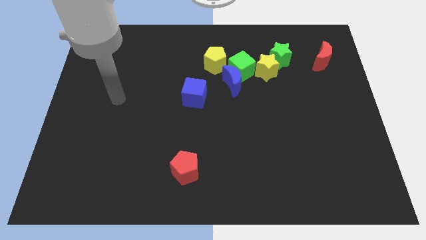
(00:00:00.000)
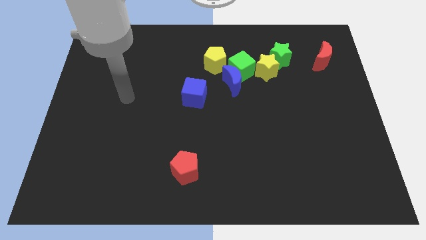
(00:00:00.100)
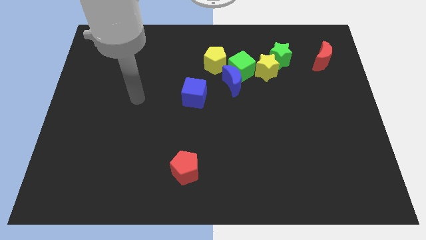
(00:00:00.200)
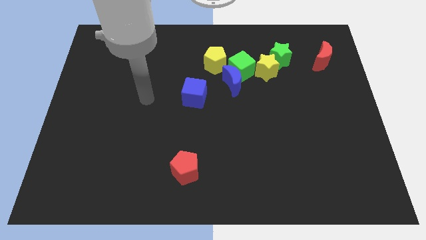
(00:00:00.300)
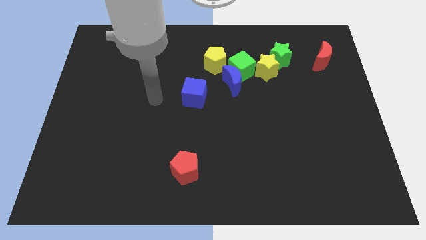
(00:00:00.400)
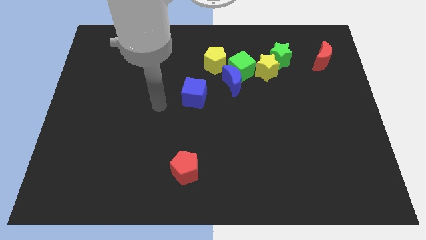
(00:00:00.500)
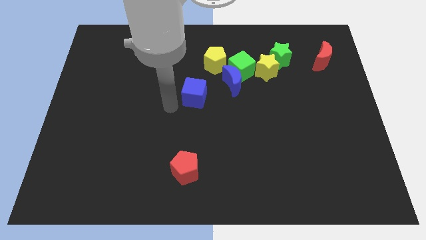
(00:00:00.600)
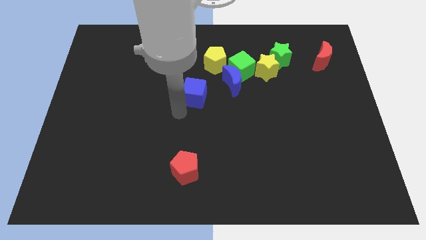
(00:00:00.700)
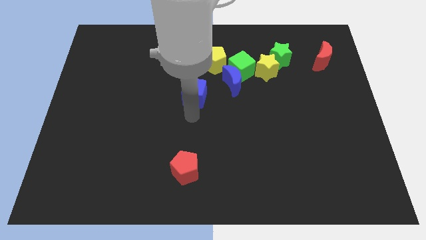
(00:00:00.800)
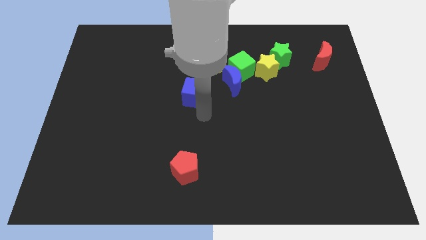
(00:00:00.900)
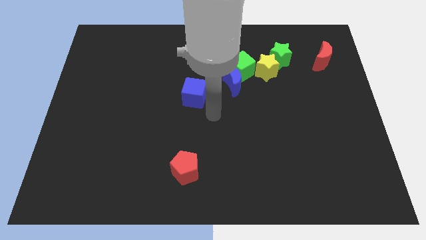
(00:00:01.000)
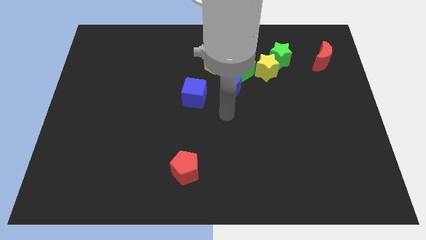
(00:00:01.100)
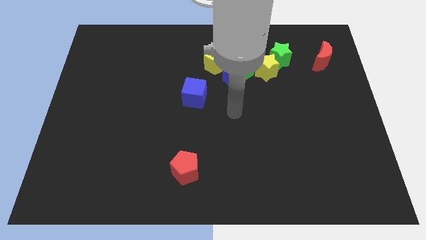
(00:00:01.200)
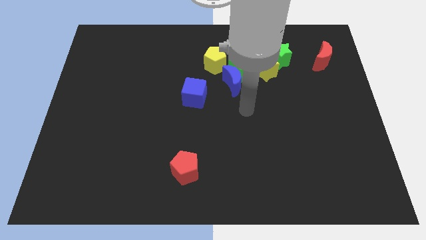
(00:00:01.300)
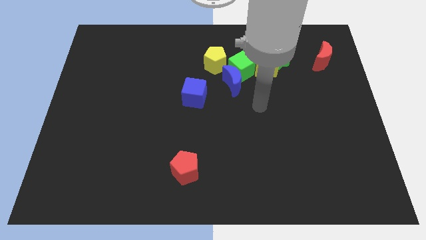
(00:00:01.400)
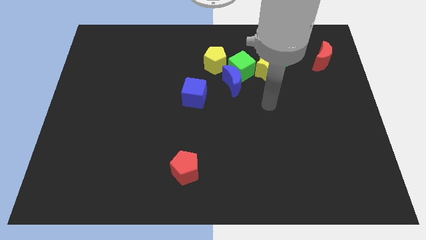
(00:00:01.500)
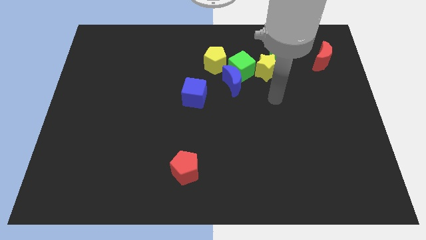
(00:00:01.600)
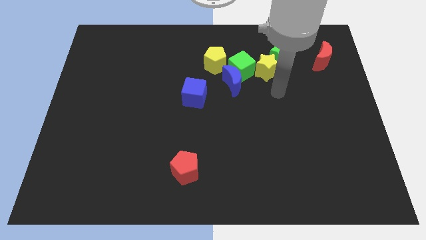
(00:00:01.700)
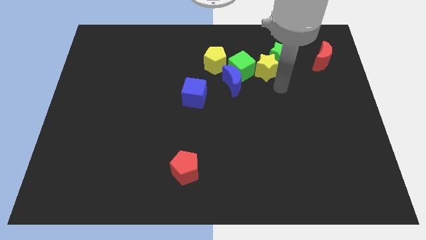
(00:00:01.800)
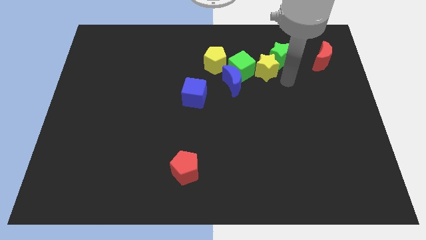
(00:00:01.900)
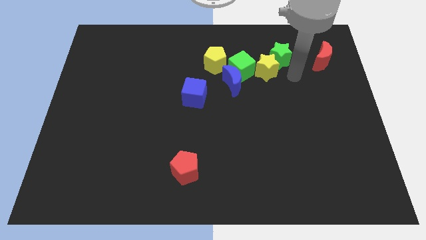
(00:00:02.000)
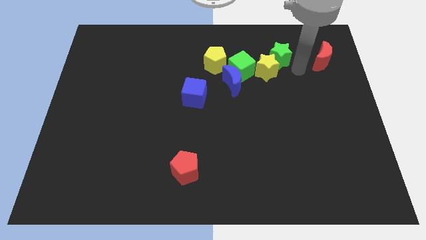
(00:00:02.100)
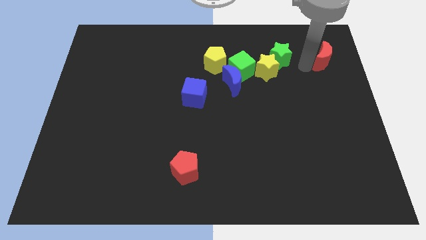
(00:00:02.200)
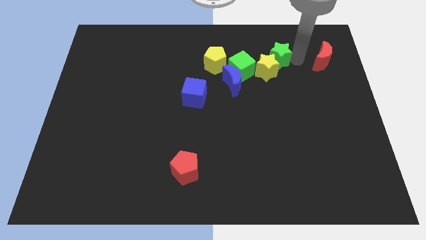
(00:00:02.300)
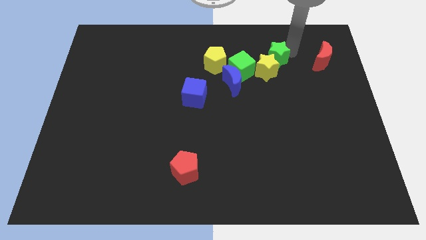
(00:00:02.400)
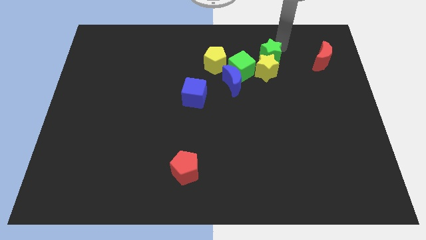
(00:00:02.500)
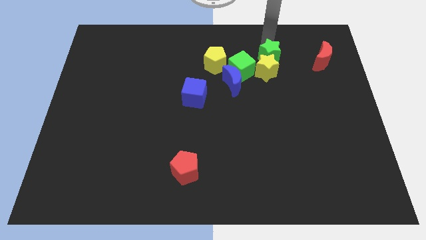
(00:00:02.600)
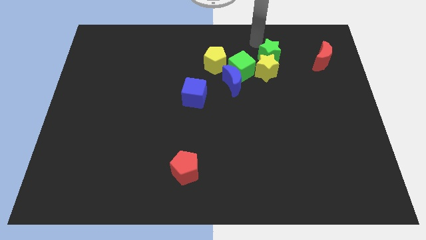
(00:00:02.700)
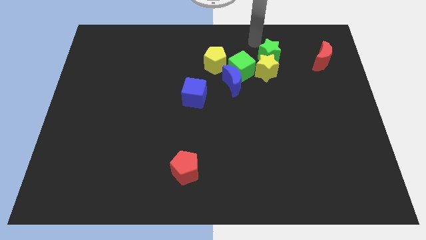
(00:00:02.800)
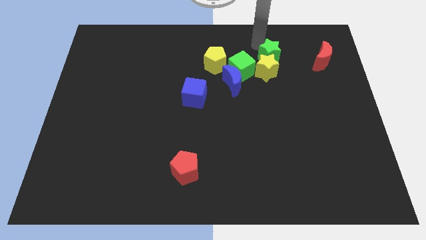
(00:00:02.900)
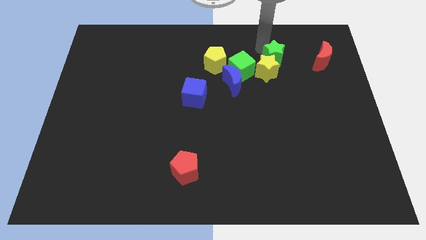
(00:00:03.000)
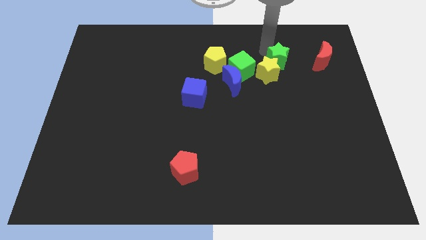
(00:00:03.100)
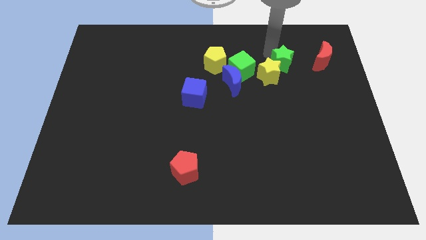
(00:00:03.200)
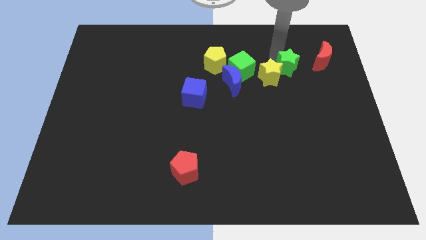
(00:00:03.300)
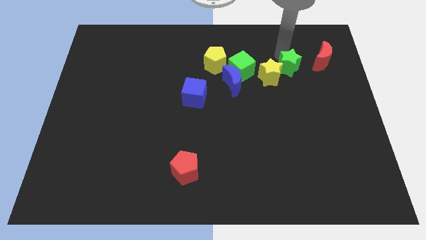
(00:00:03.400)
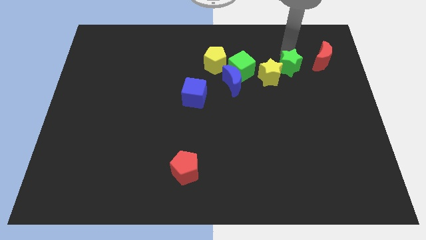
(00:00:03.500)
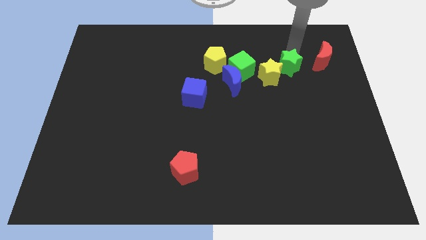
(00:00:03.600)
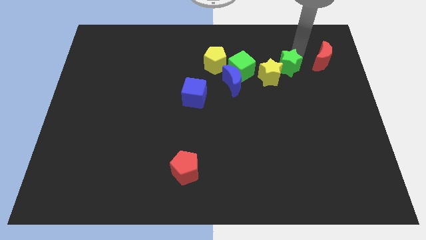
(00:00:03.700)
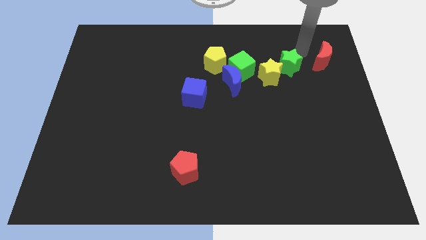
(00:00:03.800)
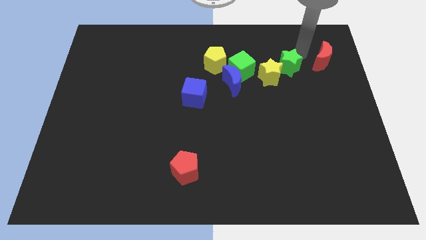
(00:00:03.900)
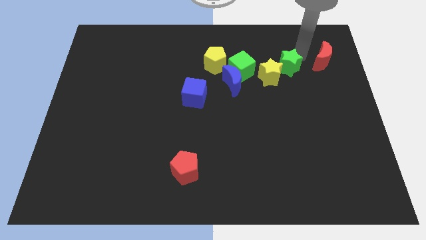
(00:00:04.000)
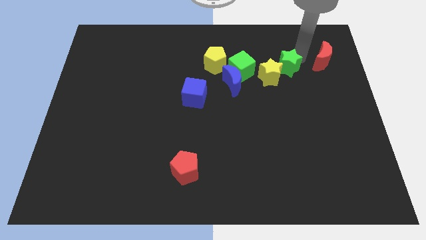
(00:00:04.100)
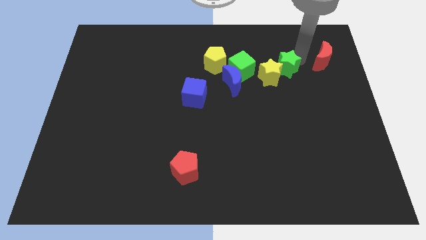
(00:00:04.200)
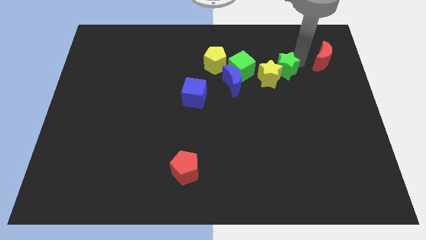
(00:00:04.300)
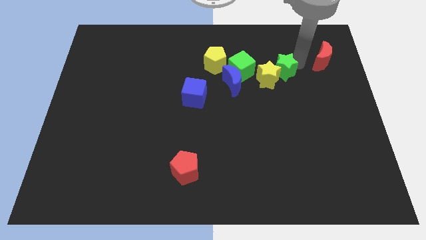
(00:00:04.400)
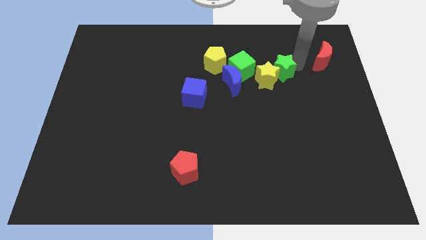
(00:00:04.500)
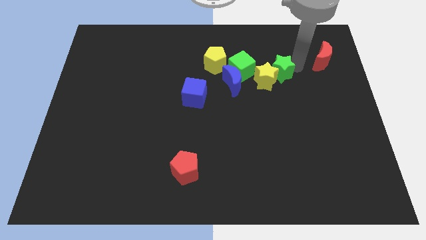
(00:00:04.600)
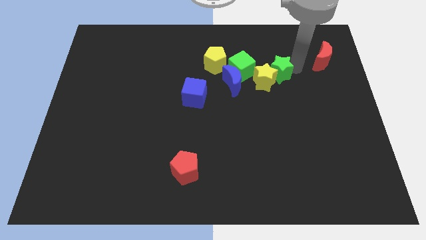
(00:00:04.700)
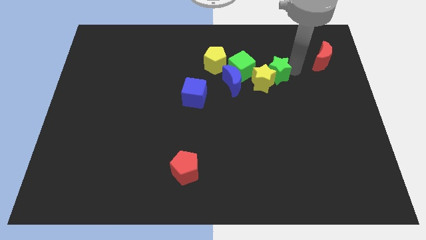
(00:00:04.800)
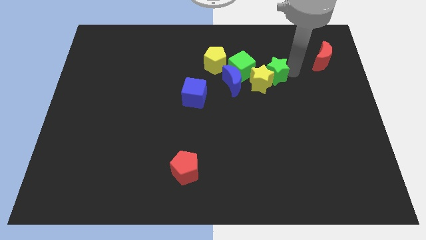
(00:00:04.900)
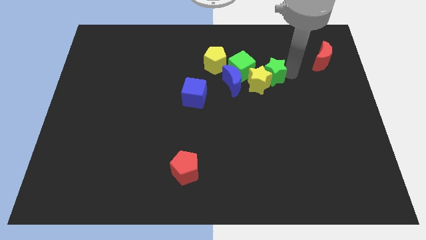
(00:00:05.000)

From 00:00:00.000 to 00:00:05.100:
move the green star to the bottom right of the green cube

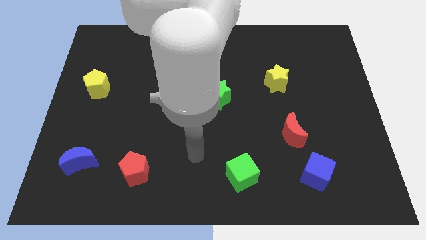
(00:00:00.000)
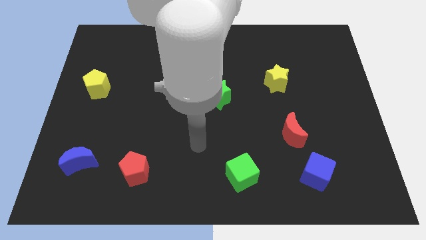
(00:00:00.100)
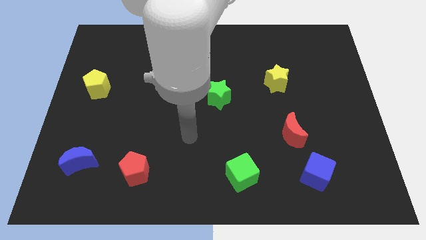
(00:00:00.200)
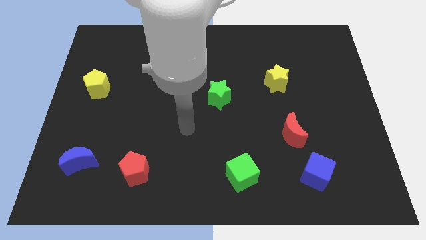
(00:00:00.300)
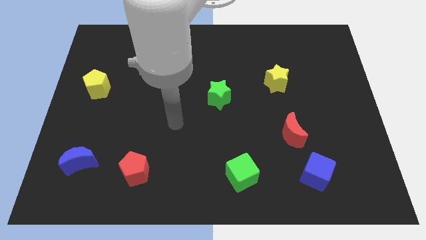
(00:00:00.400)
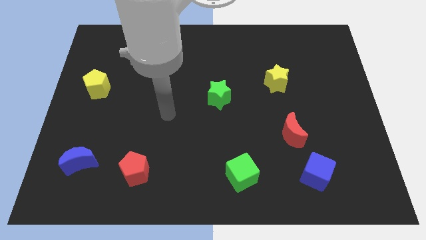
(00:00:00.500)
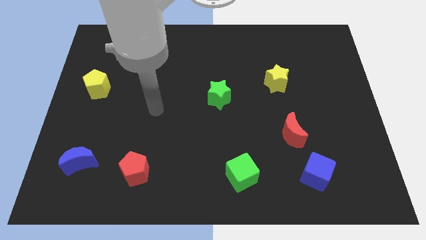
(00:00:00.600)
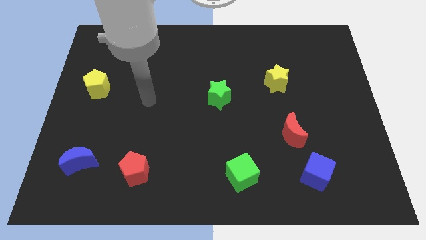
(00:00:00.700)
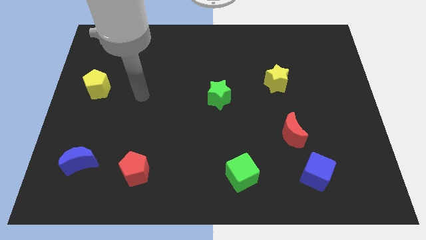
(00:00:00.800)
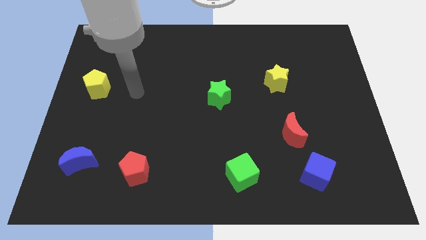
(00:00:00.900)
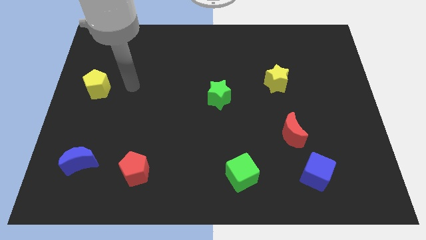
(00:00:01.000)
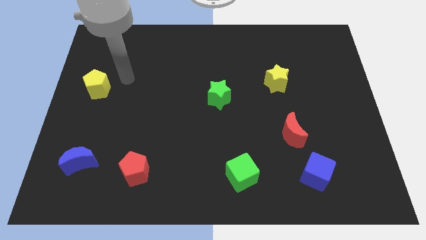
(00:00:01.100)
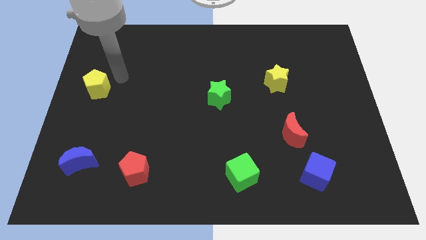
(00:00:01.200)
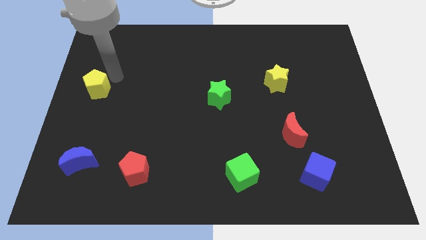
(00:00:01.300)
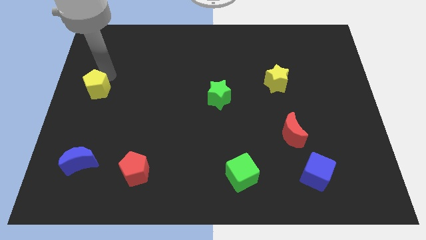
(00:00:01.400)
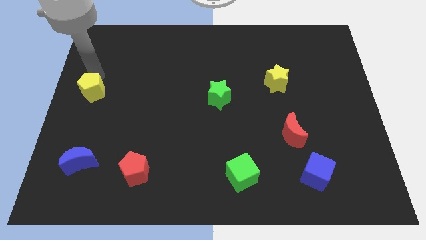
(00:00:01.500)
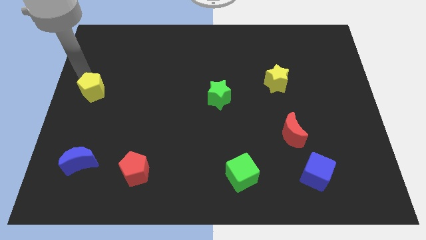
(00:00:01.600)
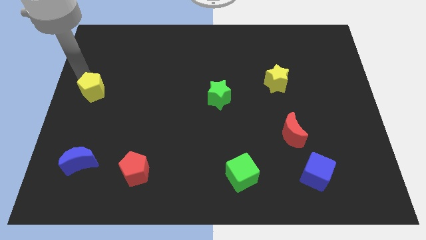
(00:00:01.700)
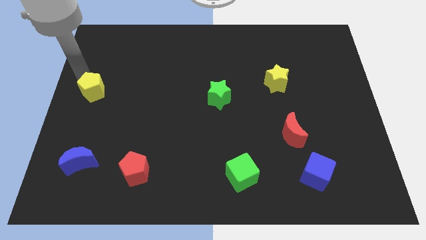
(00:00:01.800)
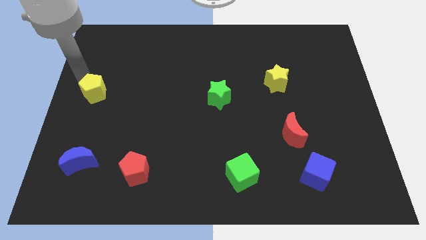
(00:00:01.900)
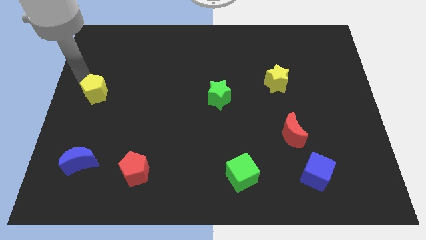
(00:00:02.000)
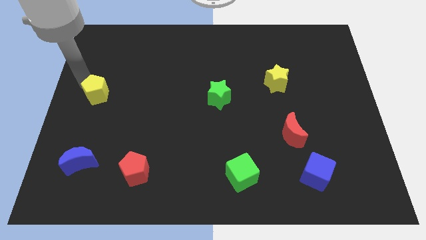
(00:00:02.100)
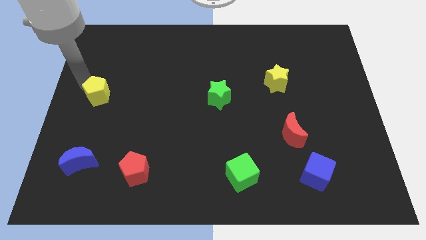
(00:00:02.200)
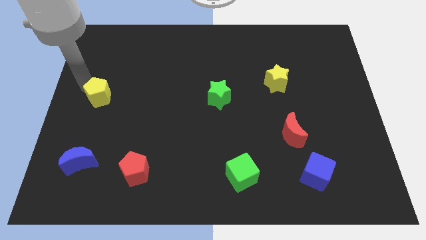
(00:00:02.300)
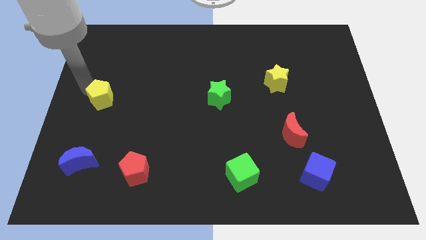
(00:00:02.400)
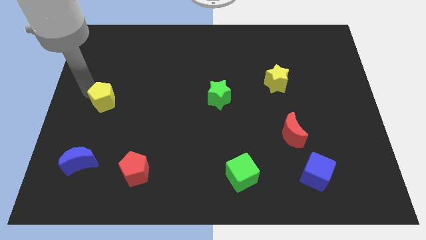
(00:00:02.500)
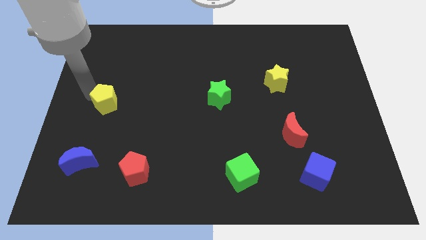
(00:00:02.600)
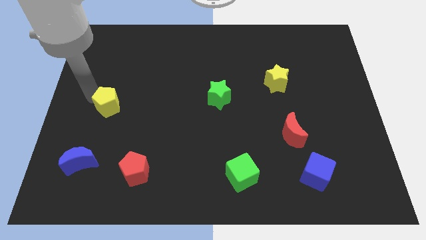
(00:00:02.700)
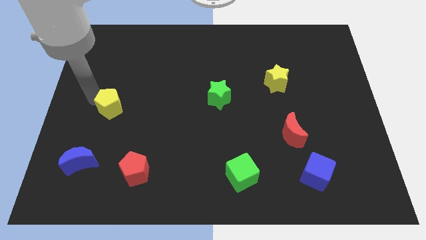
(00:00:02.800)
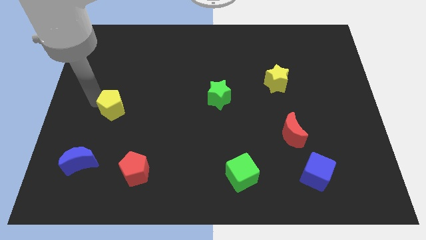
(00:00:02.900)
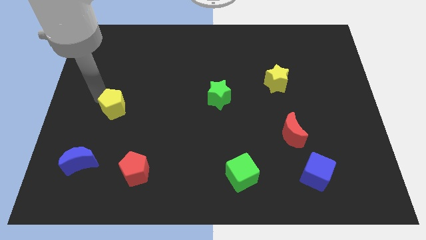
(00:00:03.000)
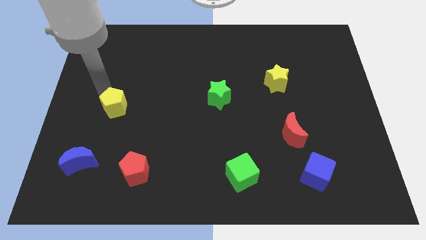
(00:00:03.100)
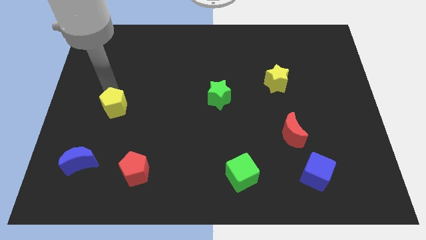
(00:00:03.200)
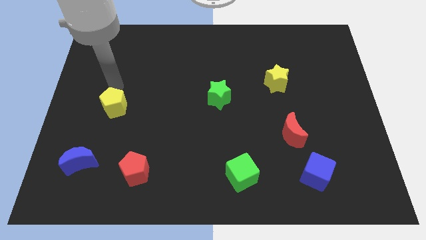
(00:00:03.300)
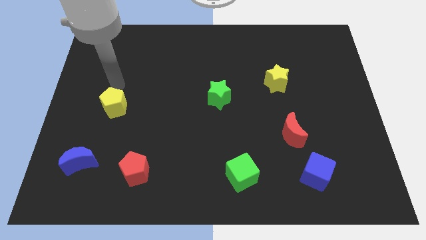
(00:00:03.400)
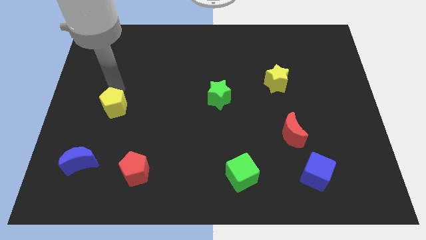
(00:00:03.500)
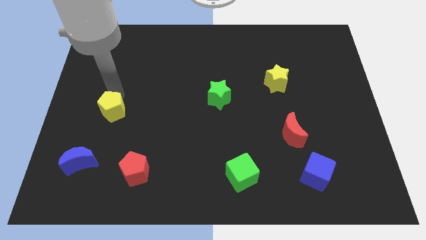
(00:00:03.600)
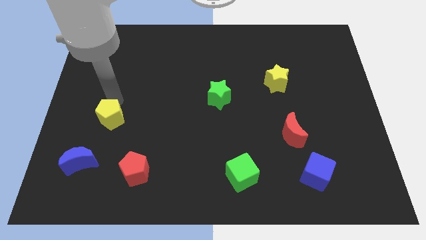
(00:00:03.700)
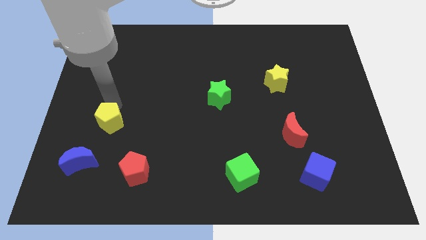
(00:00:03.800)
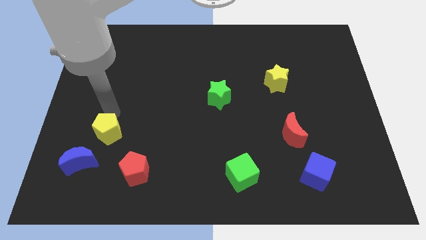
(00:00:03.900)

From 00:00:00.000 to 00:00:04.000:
slide the yellow pentagon to the top left side of the red pentagon
